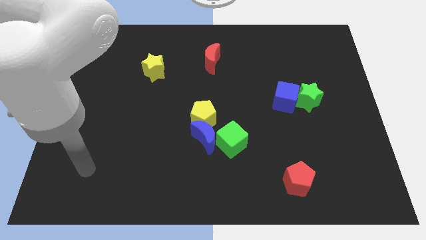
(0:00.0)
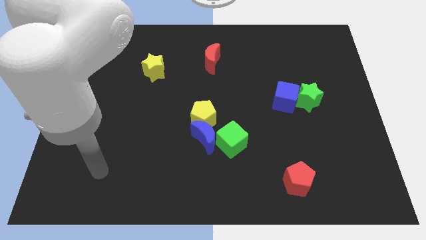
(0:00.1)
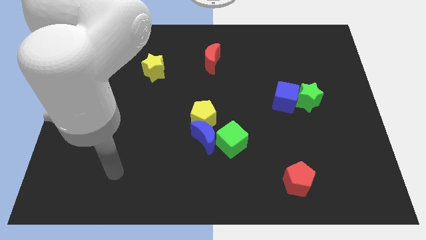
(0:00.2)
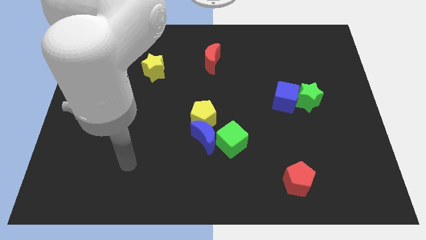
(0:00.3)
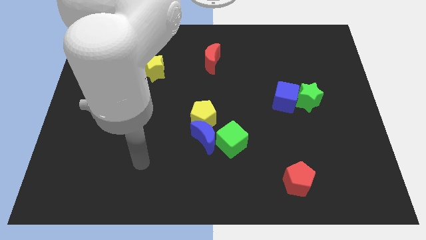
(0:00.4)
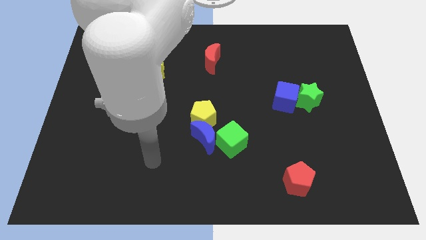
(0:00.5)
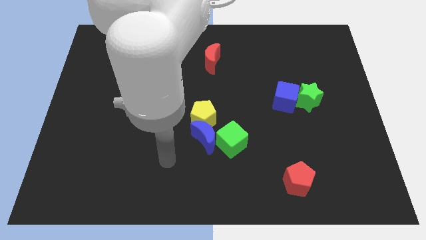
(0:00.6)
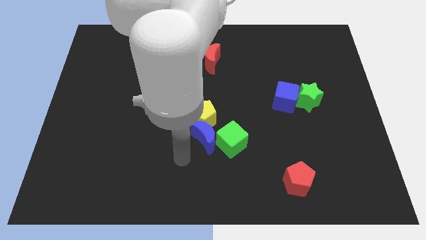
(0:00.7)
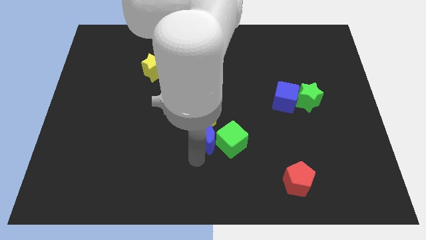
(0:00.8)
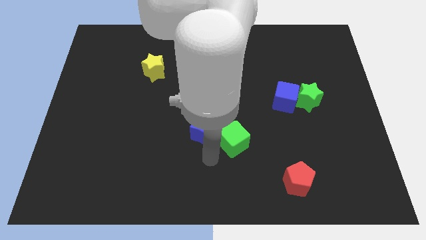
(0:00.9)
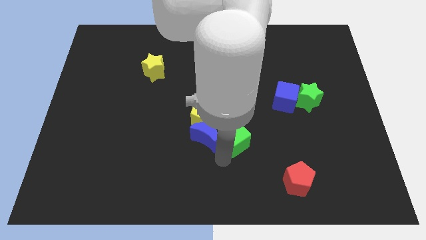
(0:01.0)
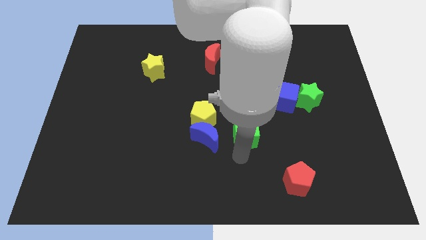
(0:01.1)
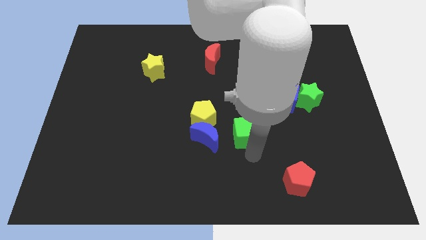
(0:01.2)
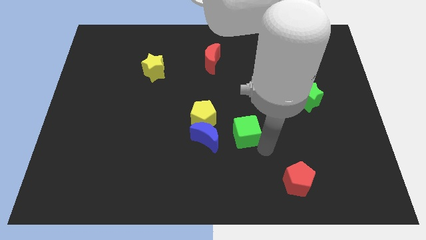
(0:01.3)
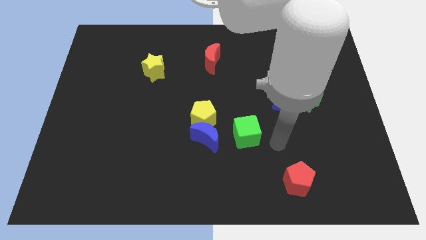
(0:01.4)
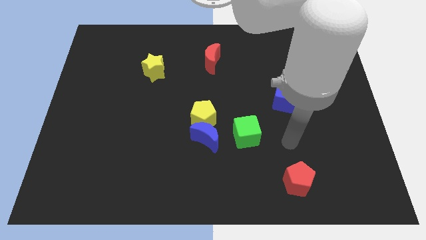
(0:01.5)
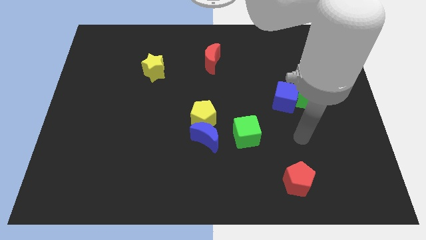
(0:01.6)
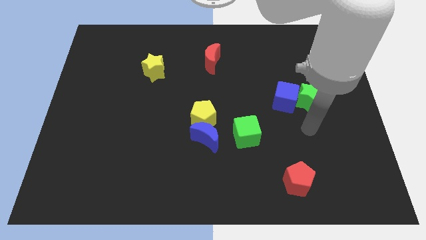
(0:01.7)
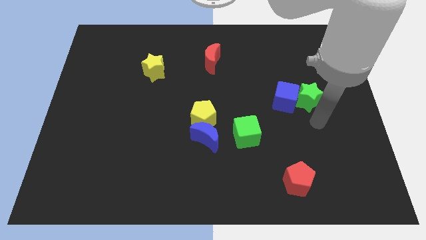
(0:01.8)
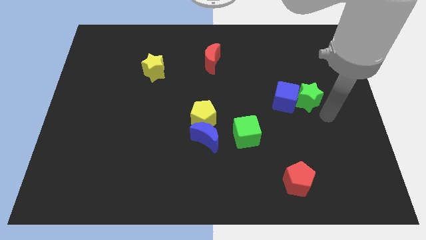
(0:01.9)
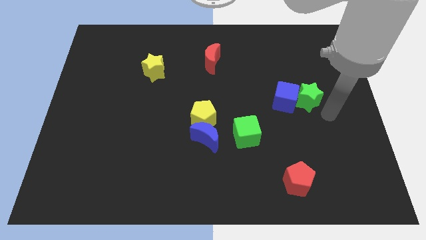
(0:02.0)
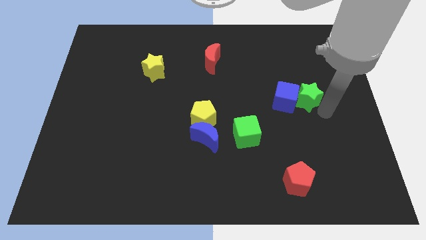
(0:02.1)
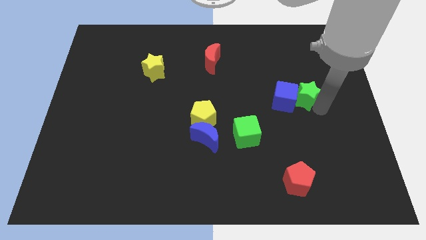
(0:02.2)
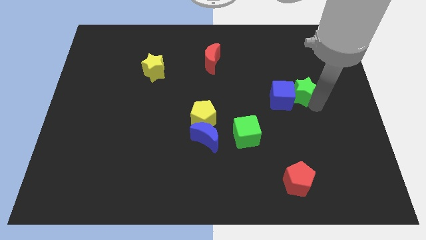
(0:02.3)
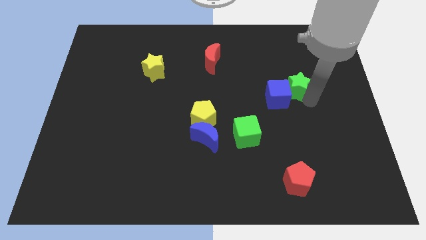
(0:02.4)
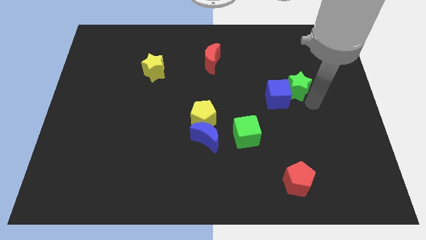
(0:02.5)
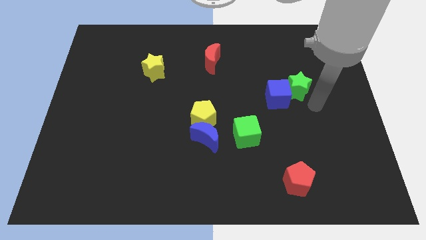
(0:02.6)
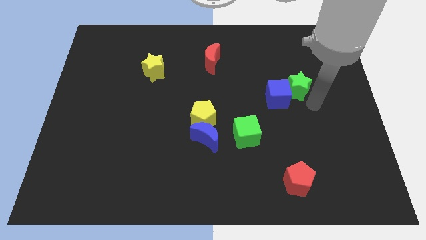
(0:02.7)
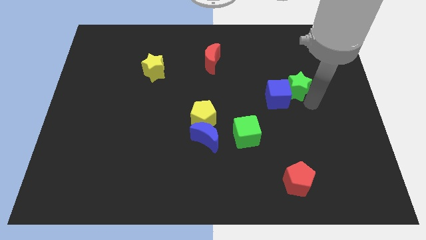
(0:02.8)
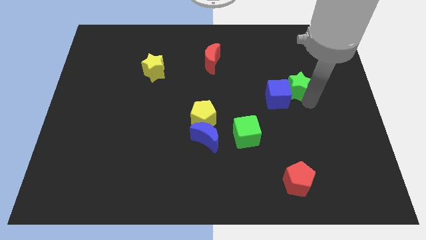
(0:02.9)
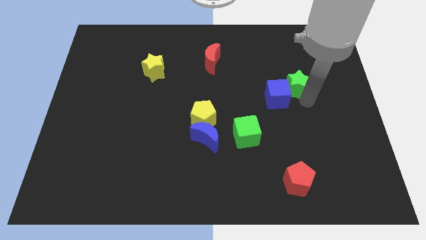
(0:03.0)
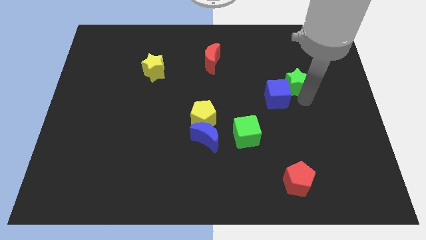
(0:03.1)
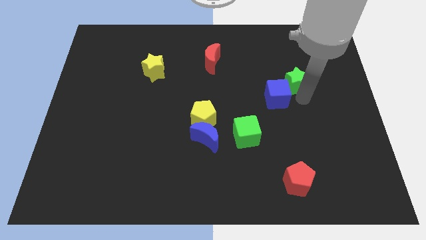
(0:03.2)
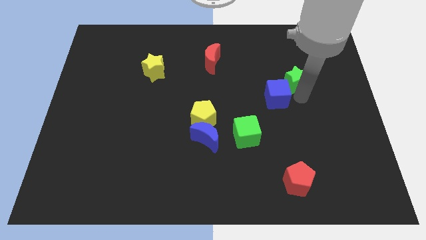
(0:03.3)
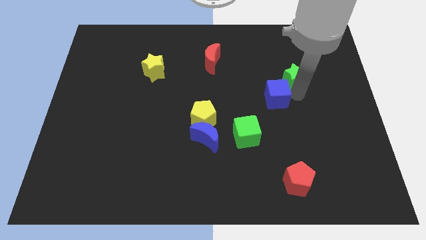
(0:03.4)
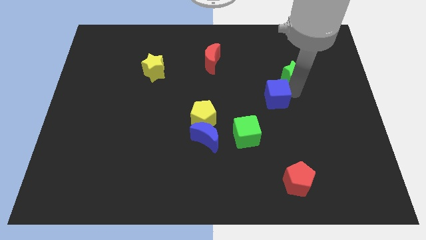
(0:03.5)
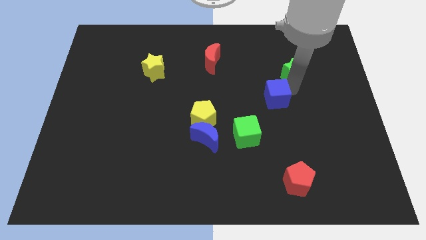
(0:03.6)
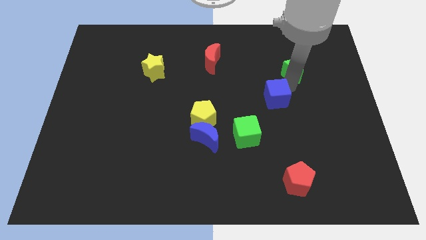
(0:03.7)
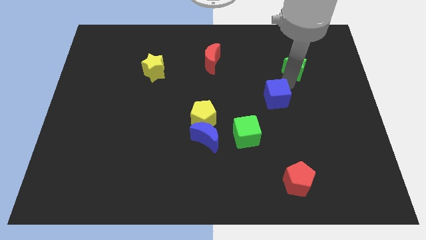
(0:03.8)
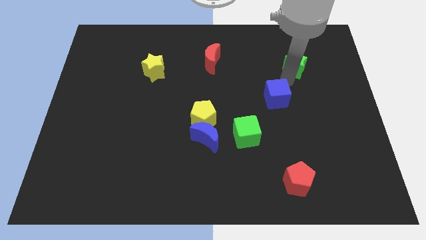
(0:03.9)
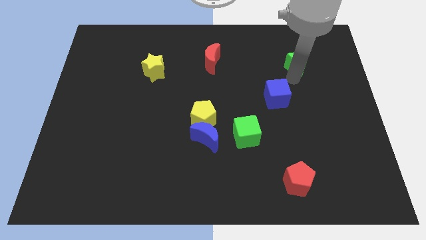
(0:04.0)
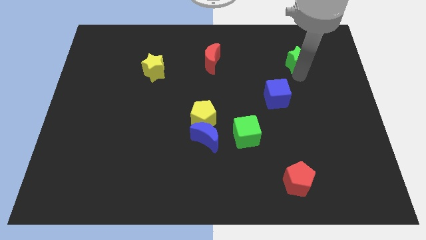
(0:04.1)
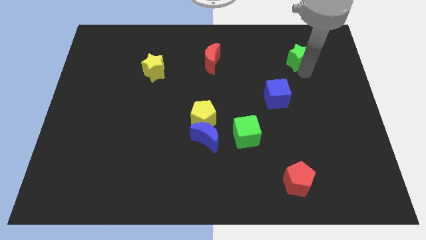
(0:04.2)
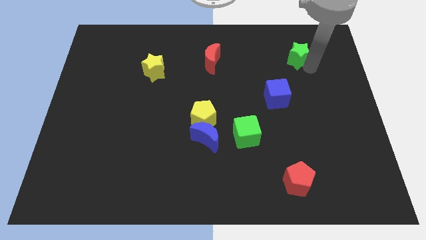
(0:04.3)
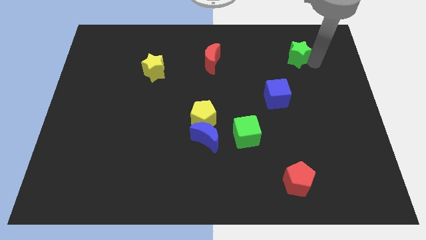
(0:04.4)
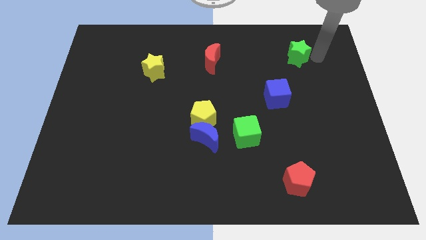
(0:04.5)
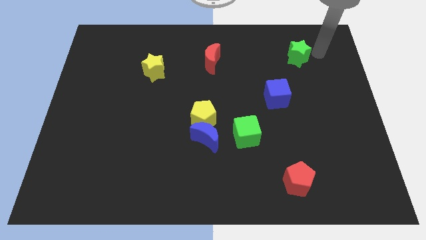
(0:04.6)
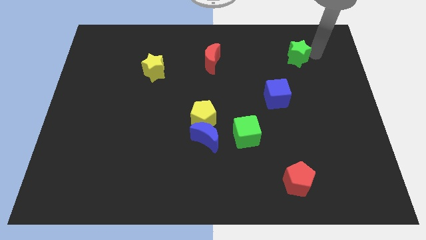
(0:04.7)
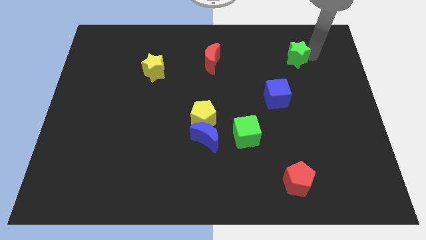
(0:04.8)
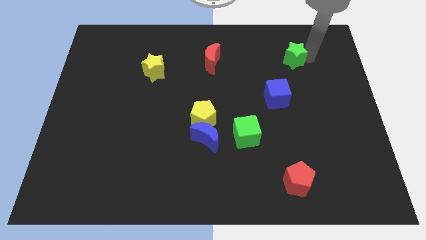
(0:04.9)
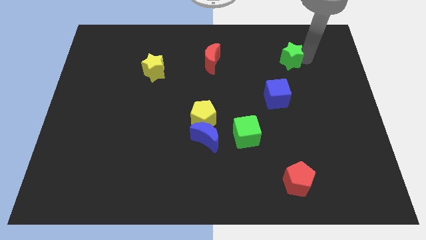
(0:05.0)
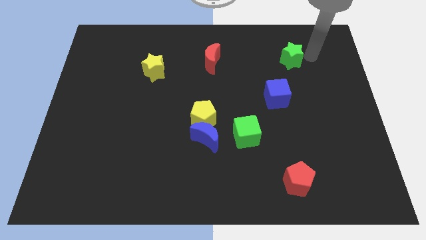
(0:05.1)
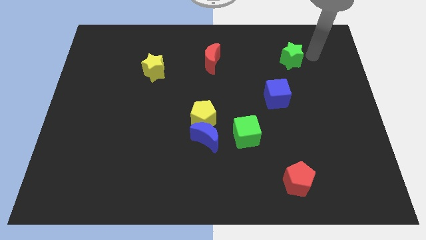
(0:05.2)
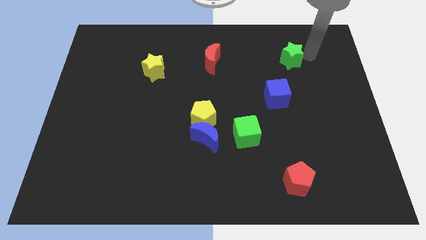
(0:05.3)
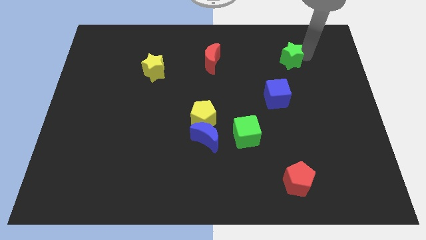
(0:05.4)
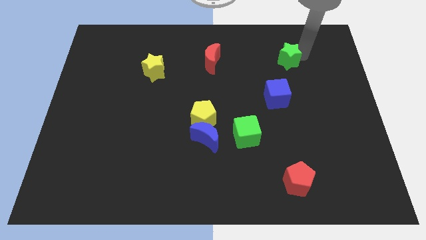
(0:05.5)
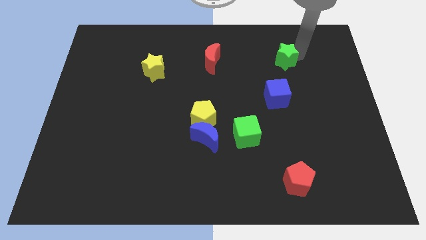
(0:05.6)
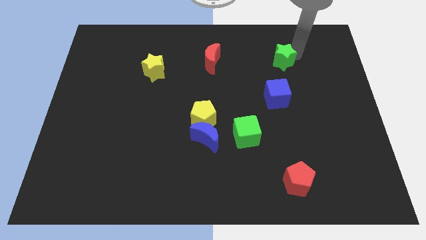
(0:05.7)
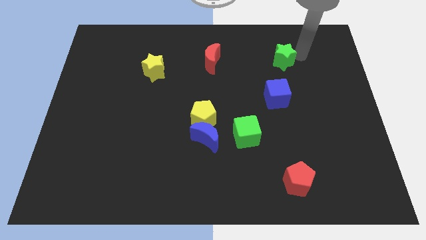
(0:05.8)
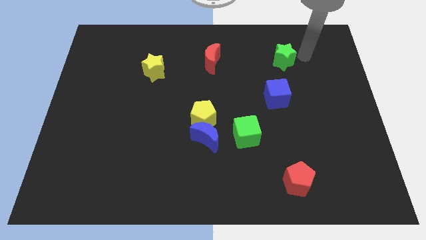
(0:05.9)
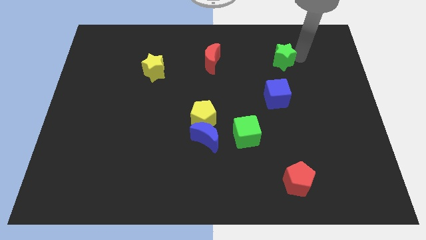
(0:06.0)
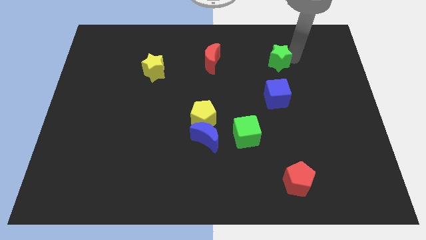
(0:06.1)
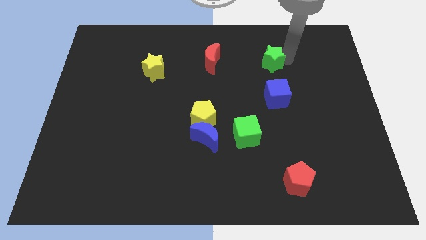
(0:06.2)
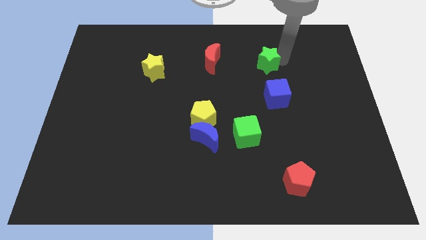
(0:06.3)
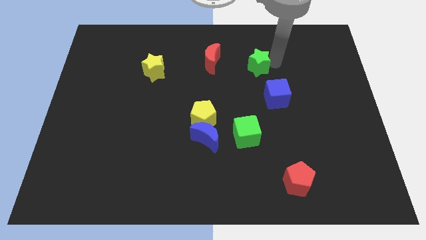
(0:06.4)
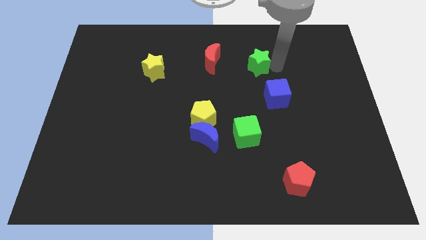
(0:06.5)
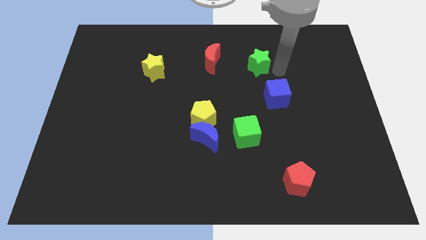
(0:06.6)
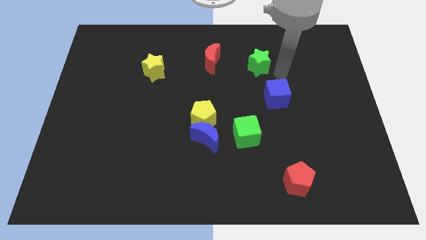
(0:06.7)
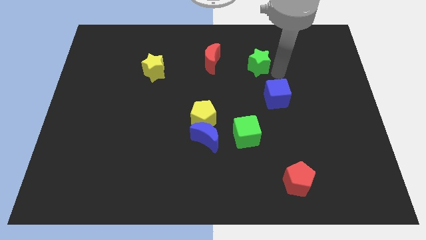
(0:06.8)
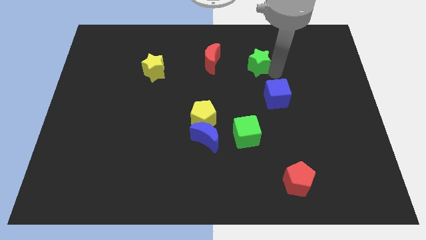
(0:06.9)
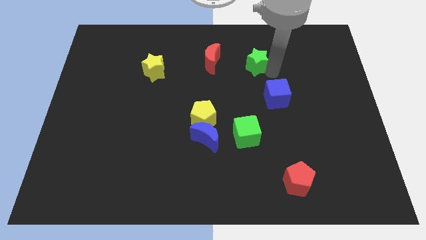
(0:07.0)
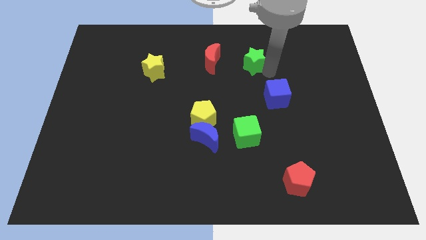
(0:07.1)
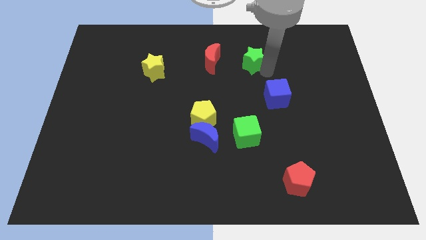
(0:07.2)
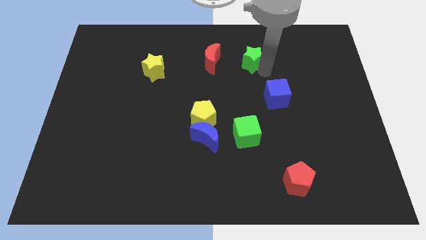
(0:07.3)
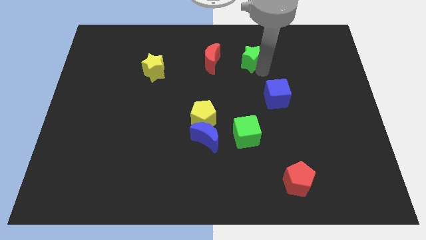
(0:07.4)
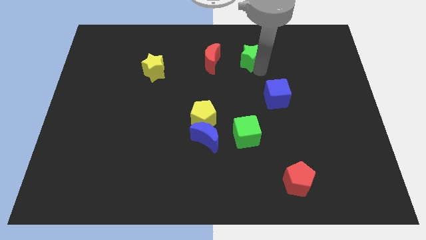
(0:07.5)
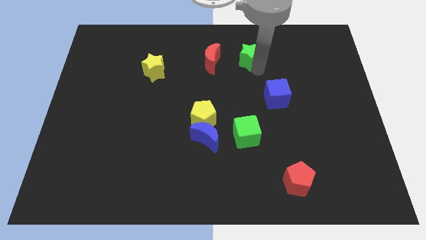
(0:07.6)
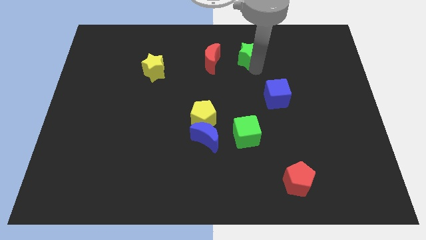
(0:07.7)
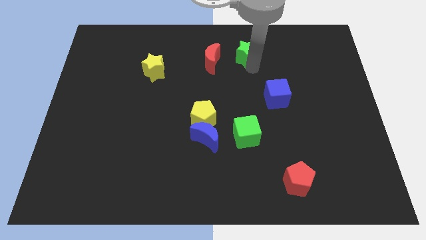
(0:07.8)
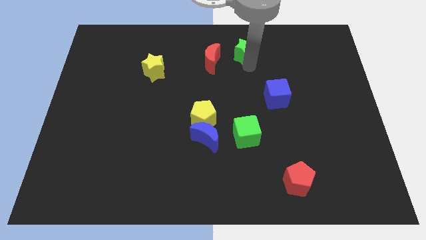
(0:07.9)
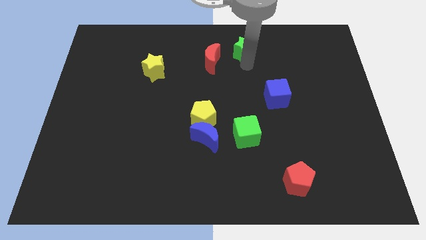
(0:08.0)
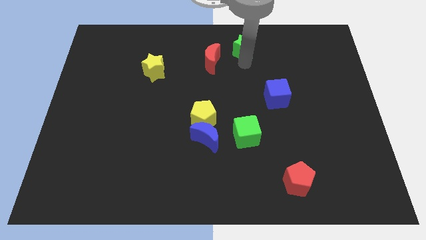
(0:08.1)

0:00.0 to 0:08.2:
put the green star to the top side
